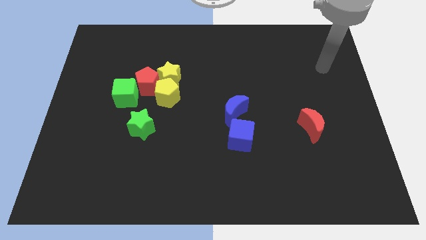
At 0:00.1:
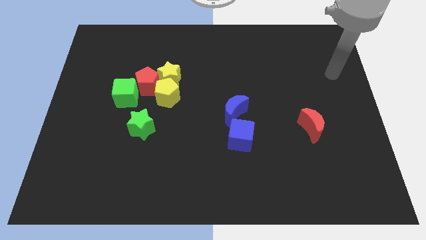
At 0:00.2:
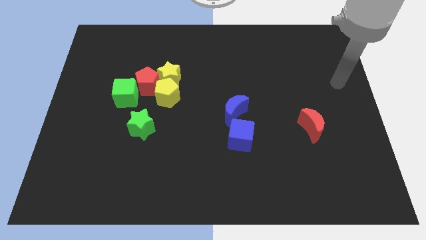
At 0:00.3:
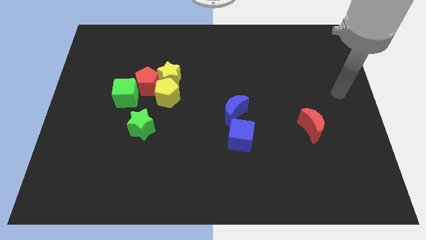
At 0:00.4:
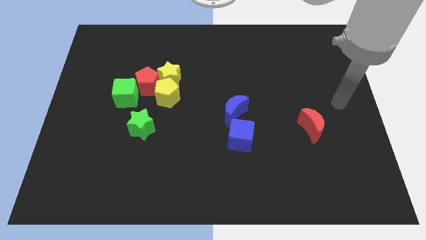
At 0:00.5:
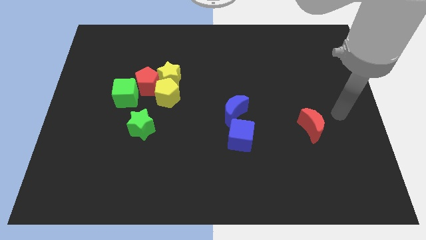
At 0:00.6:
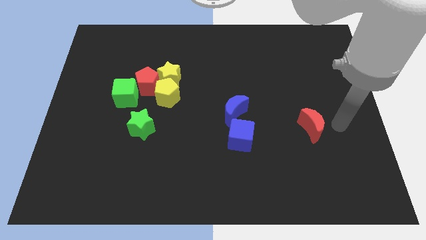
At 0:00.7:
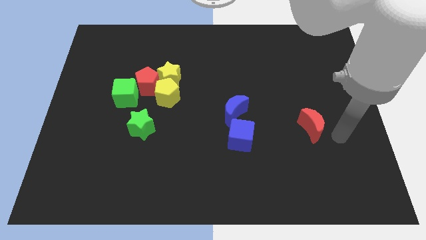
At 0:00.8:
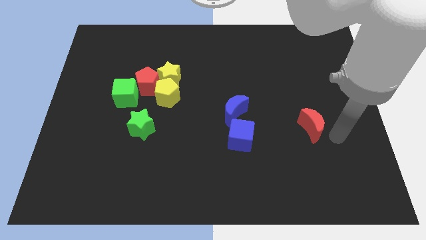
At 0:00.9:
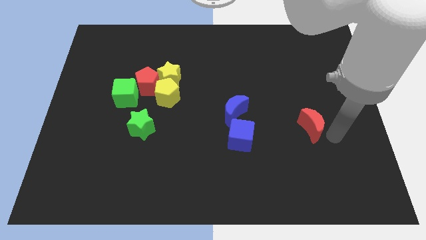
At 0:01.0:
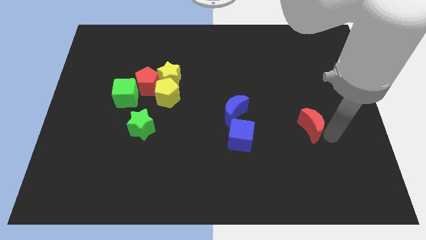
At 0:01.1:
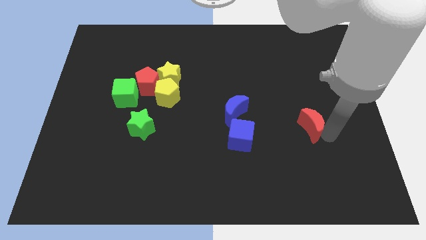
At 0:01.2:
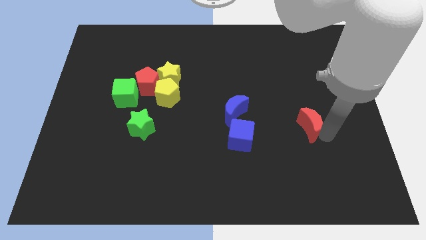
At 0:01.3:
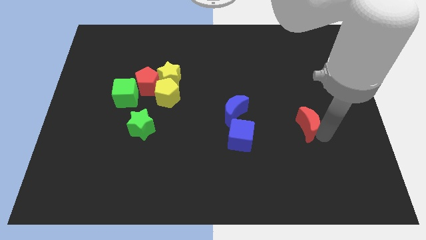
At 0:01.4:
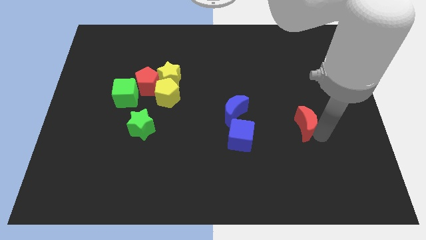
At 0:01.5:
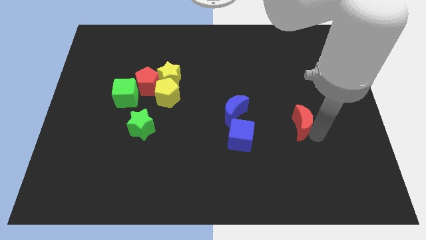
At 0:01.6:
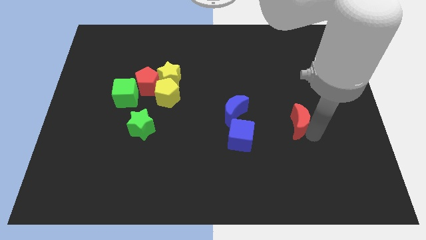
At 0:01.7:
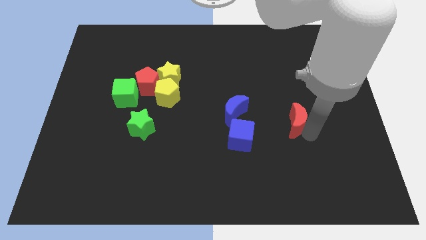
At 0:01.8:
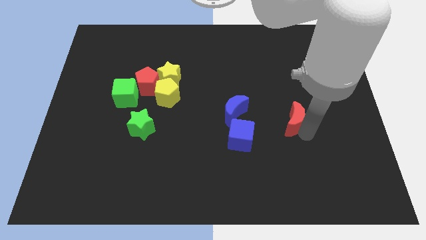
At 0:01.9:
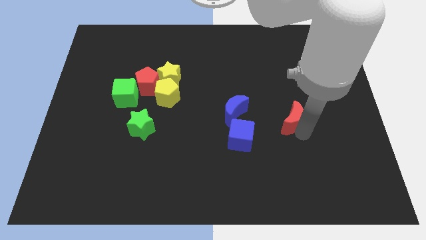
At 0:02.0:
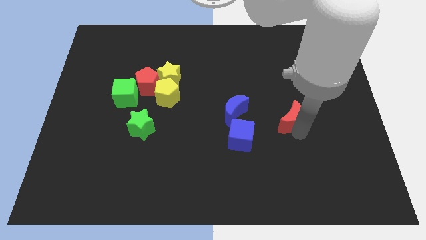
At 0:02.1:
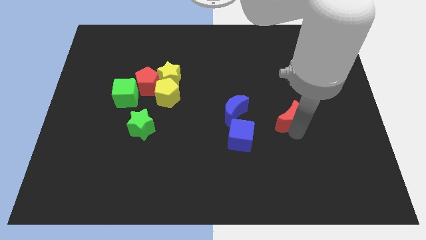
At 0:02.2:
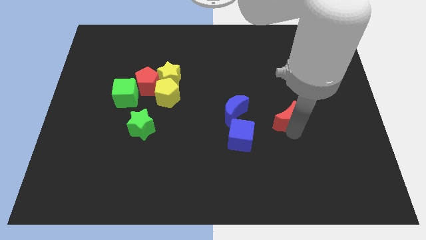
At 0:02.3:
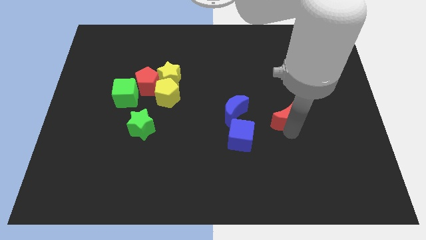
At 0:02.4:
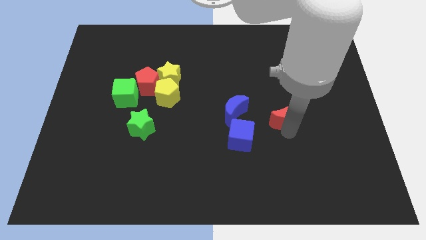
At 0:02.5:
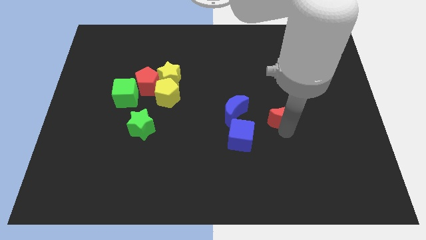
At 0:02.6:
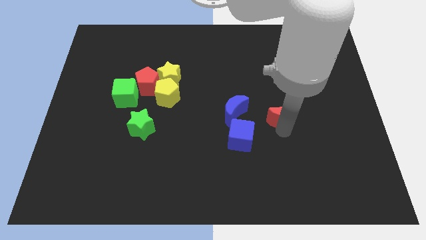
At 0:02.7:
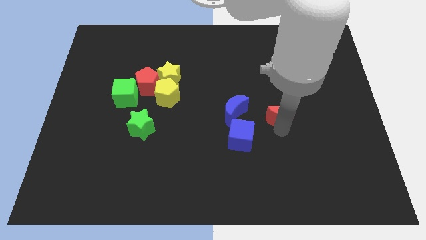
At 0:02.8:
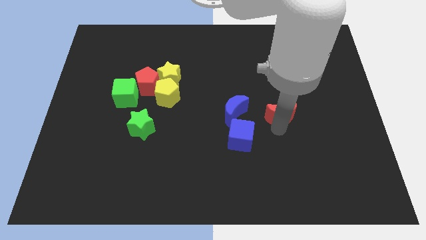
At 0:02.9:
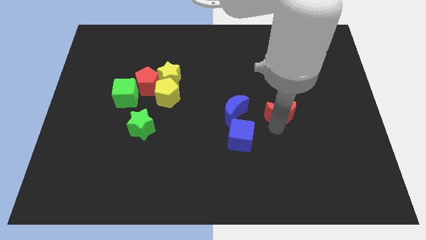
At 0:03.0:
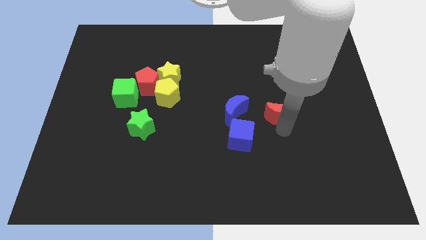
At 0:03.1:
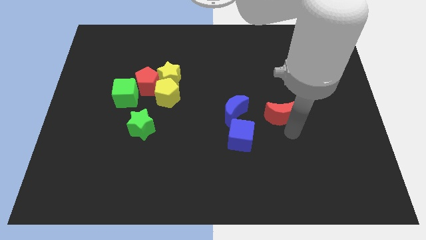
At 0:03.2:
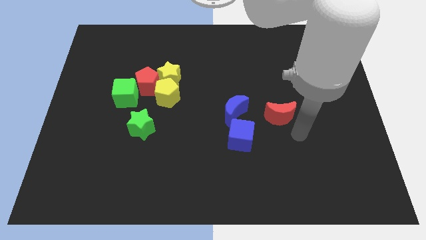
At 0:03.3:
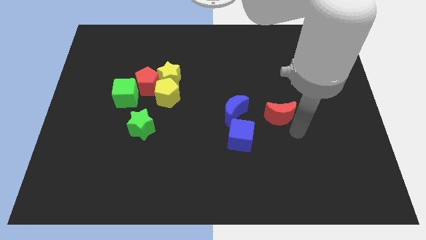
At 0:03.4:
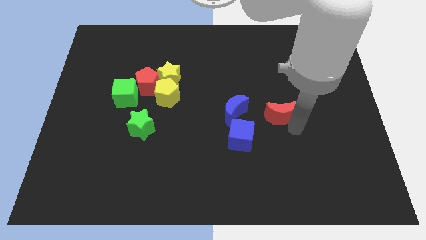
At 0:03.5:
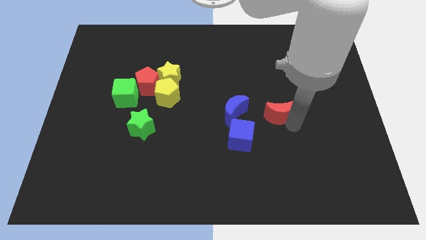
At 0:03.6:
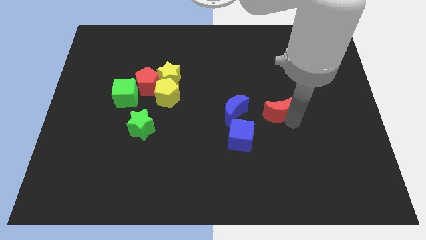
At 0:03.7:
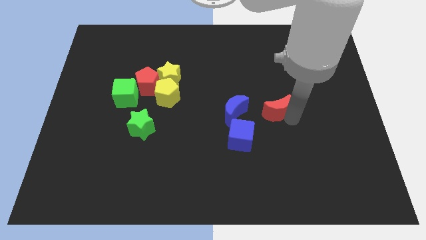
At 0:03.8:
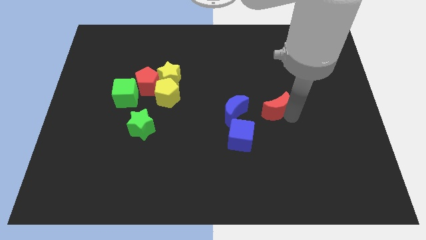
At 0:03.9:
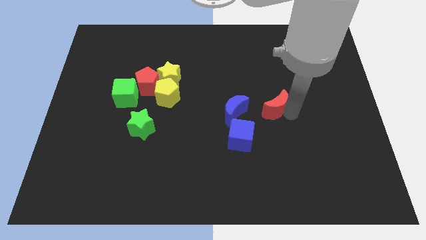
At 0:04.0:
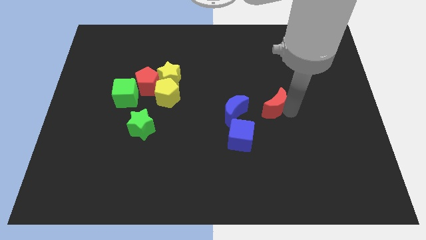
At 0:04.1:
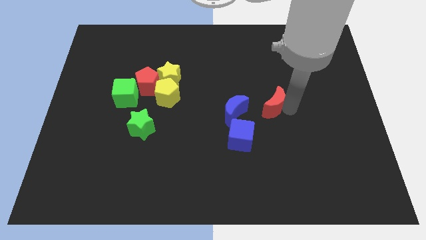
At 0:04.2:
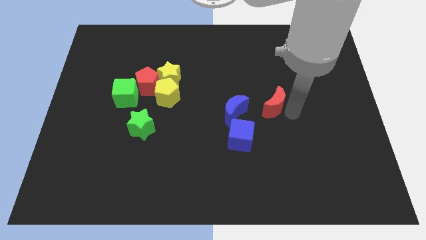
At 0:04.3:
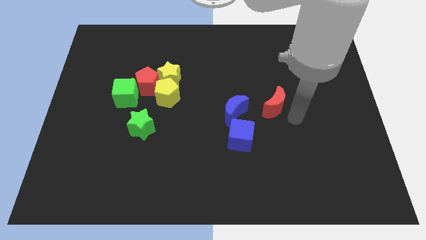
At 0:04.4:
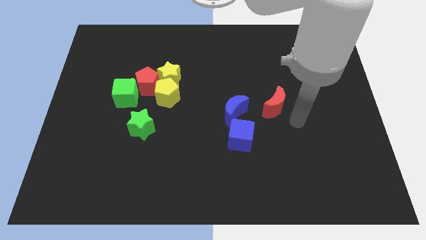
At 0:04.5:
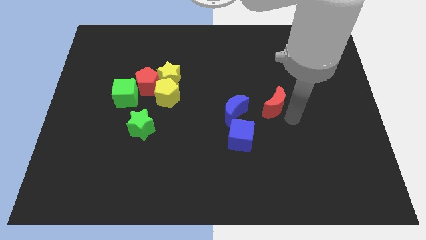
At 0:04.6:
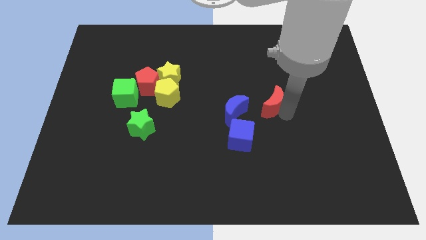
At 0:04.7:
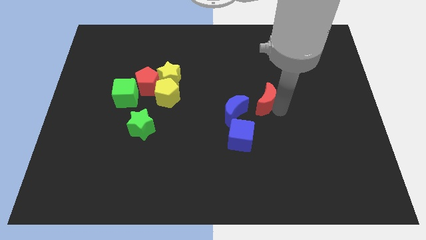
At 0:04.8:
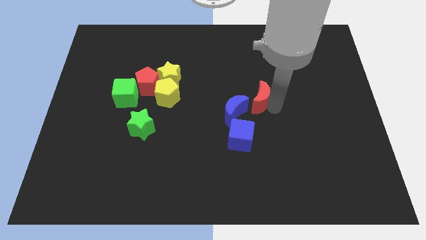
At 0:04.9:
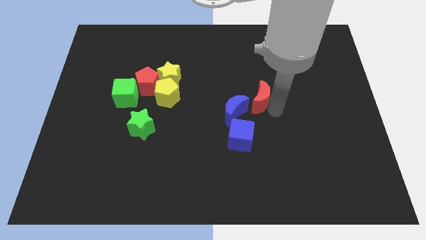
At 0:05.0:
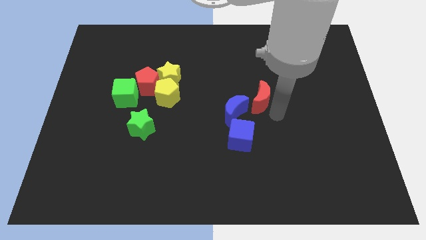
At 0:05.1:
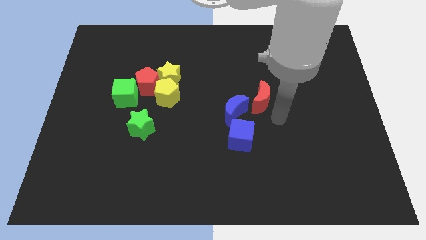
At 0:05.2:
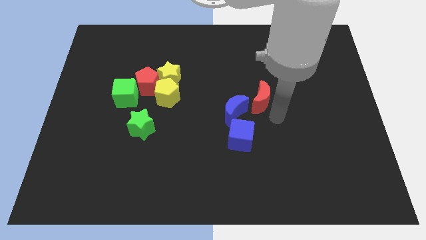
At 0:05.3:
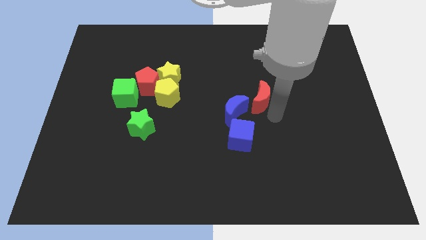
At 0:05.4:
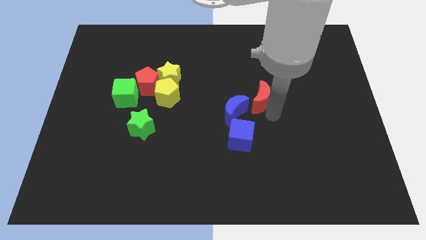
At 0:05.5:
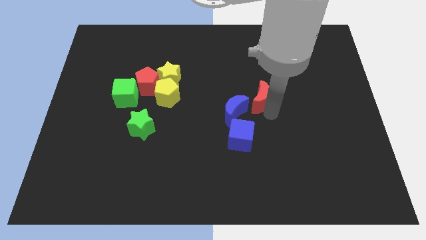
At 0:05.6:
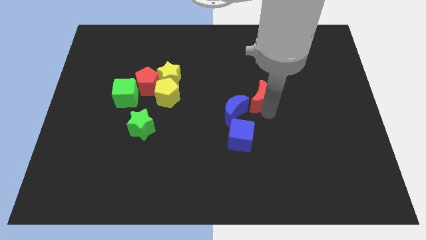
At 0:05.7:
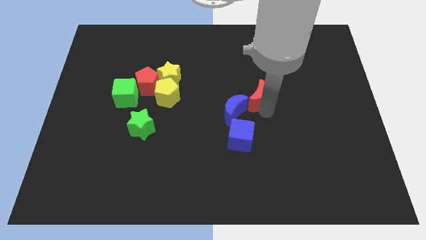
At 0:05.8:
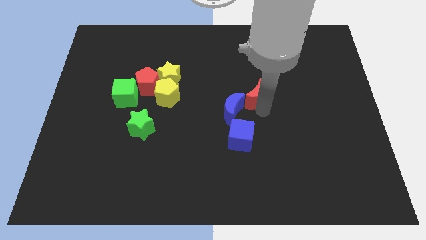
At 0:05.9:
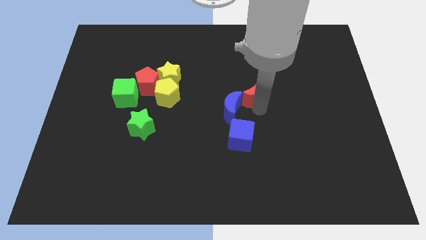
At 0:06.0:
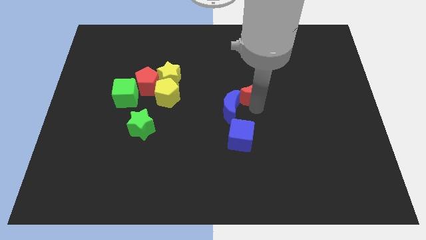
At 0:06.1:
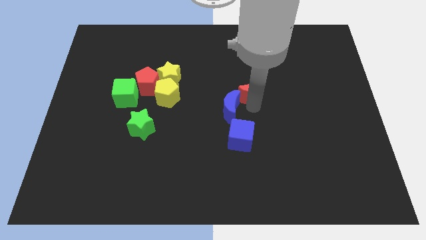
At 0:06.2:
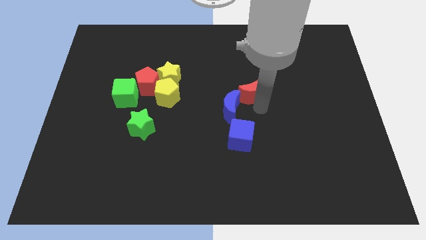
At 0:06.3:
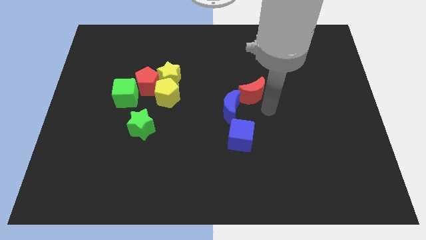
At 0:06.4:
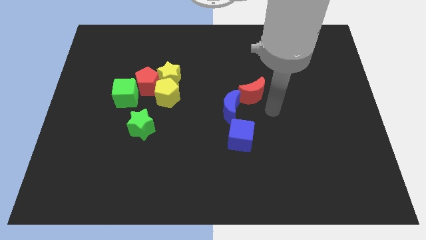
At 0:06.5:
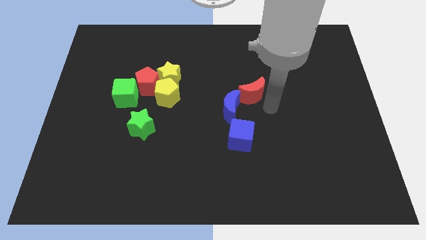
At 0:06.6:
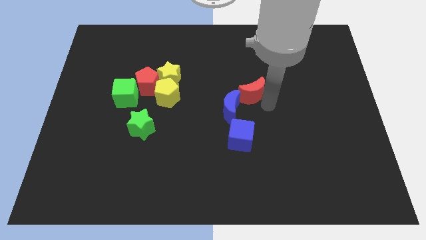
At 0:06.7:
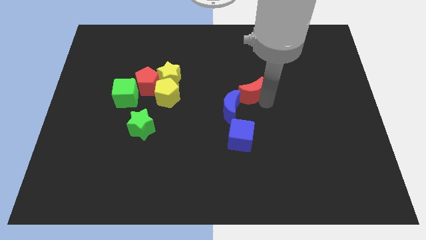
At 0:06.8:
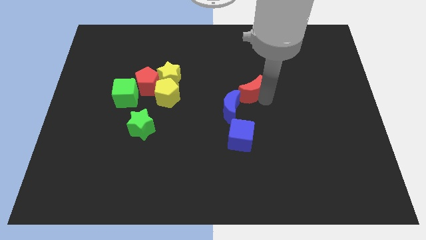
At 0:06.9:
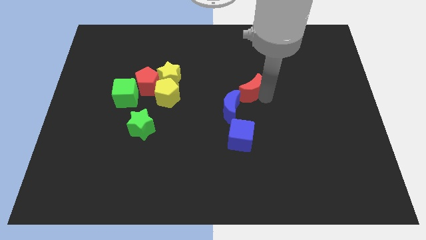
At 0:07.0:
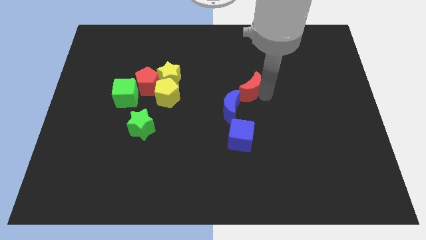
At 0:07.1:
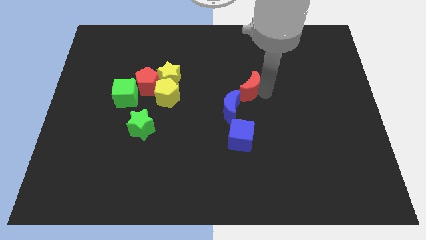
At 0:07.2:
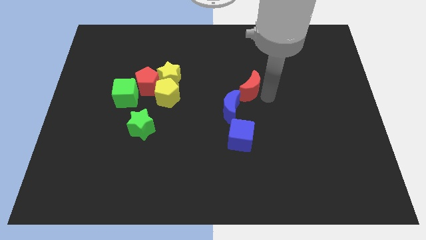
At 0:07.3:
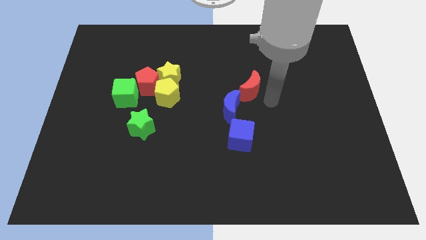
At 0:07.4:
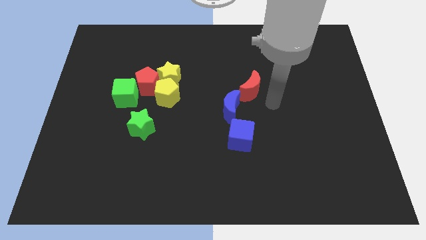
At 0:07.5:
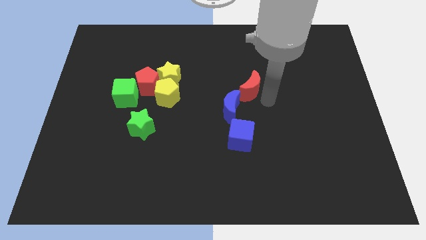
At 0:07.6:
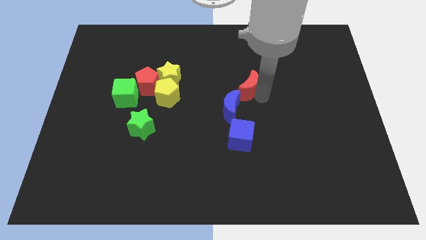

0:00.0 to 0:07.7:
slide the red moon to the top of the blue moon
